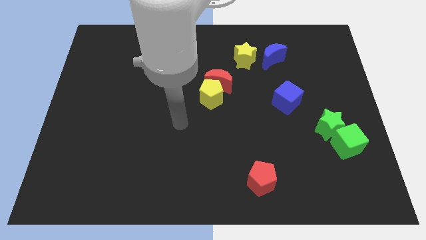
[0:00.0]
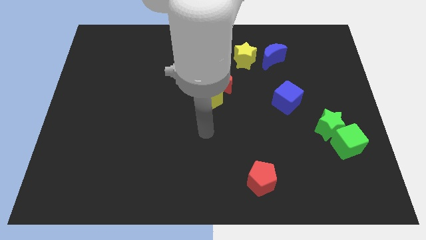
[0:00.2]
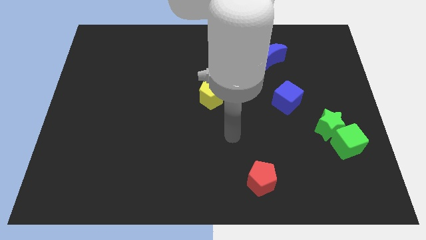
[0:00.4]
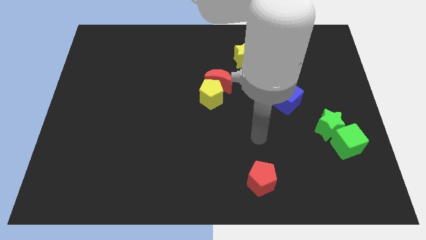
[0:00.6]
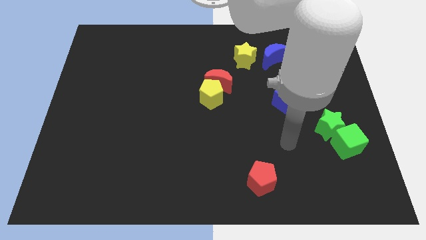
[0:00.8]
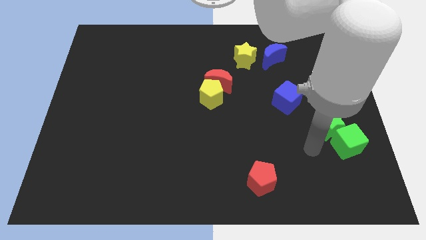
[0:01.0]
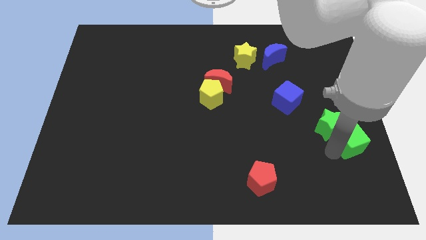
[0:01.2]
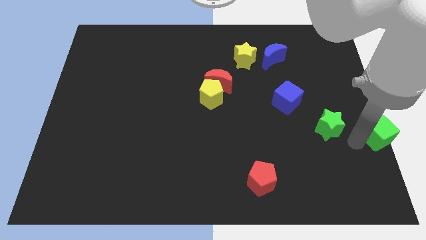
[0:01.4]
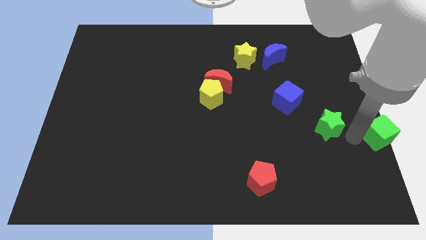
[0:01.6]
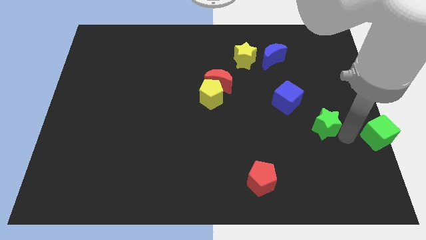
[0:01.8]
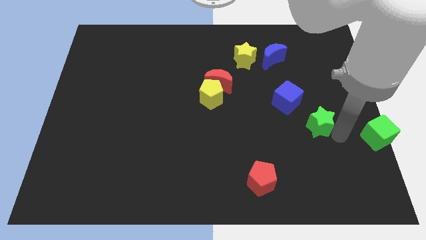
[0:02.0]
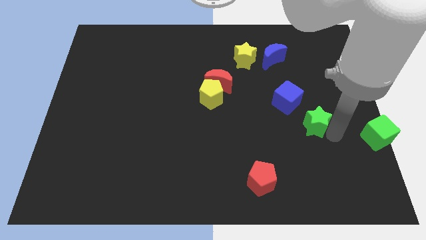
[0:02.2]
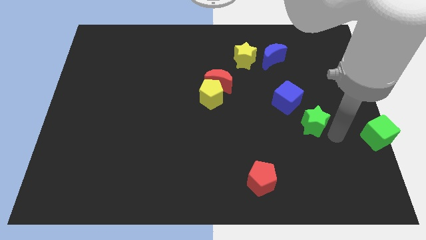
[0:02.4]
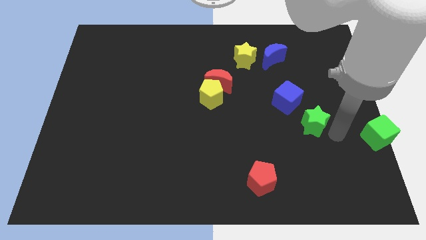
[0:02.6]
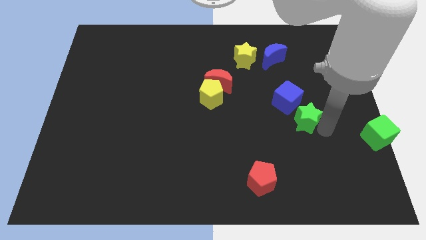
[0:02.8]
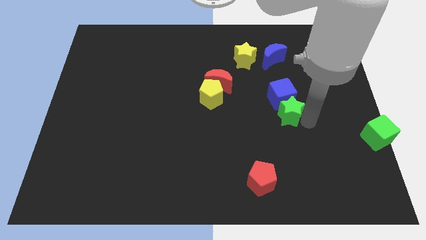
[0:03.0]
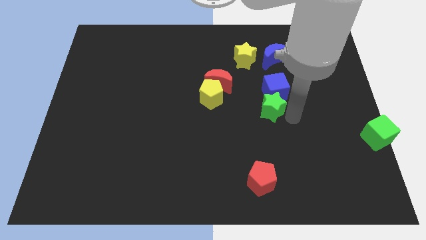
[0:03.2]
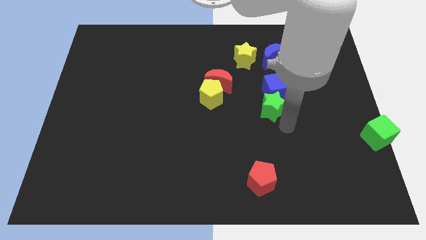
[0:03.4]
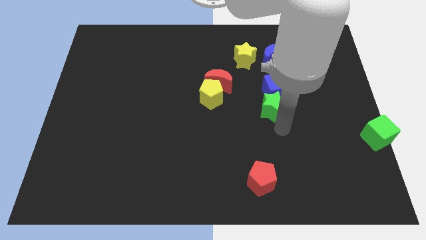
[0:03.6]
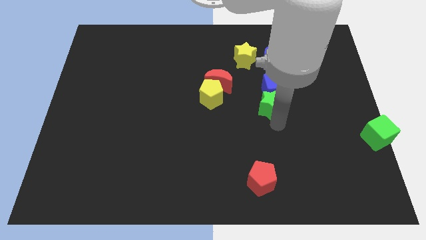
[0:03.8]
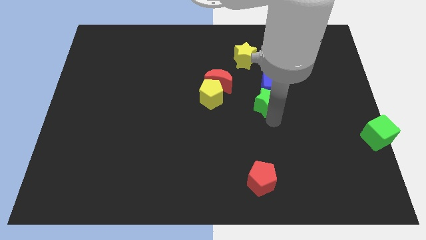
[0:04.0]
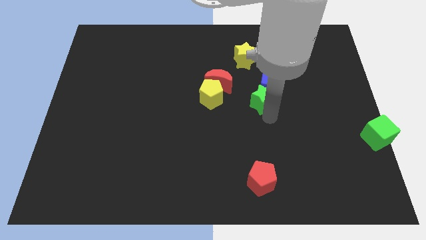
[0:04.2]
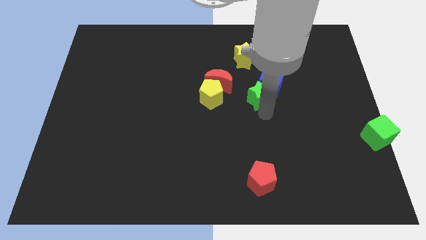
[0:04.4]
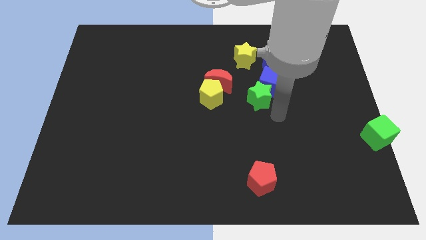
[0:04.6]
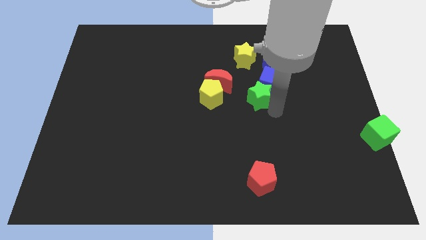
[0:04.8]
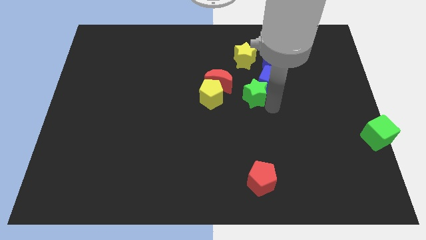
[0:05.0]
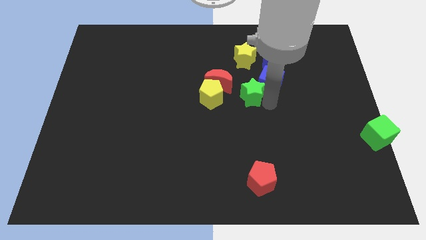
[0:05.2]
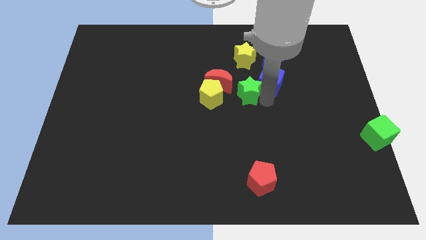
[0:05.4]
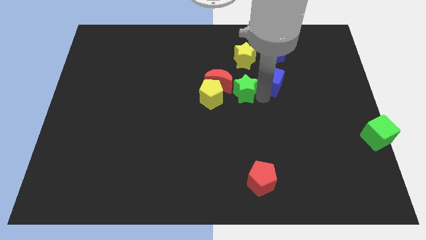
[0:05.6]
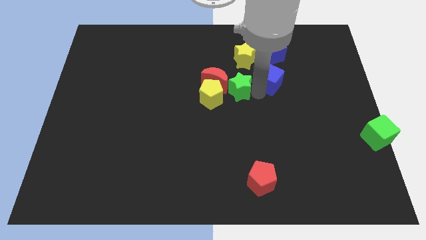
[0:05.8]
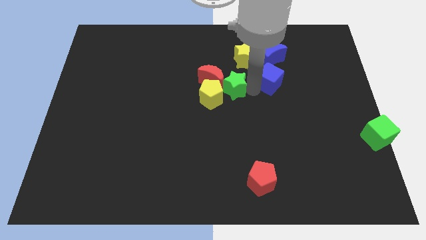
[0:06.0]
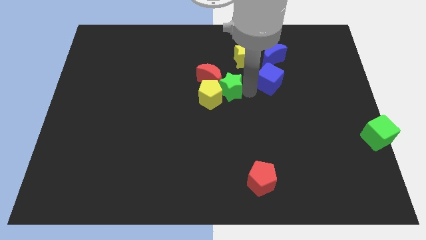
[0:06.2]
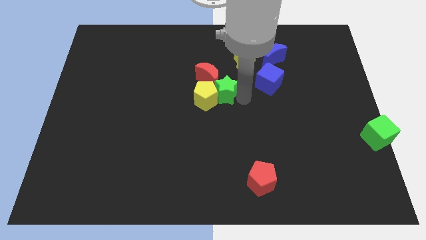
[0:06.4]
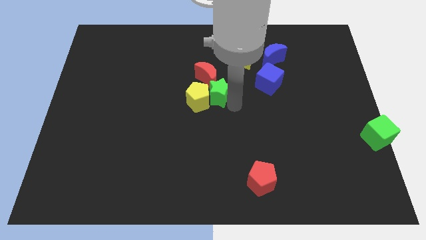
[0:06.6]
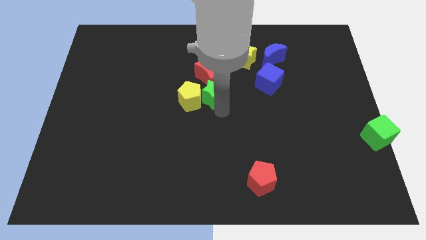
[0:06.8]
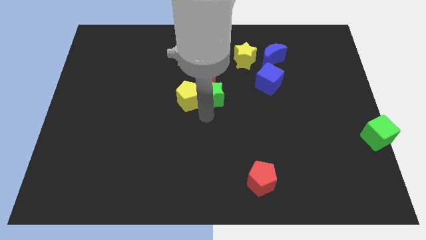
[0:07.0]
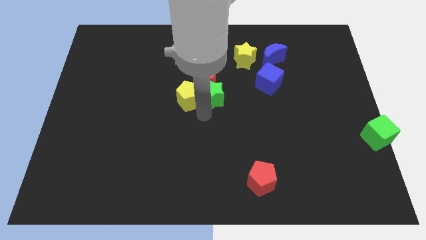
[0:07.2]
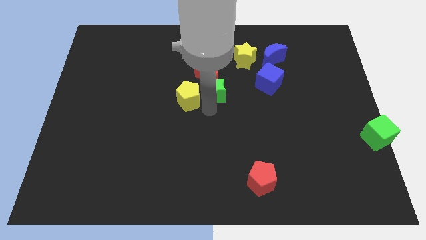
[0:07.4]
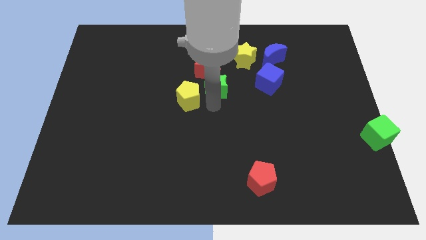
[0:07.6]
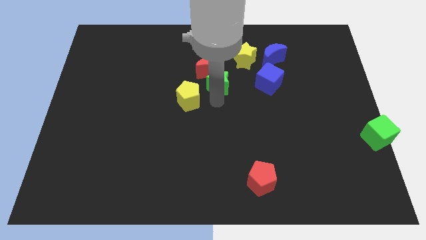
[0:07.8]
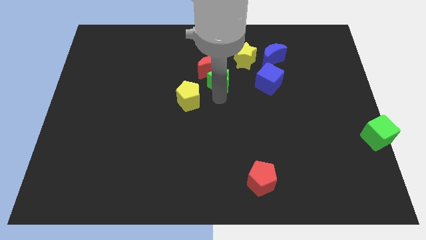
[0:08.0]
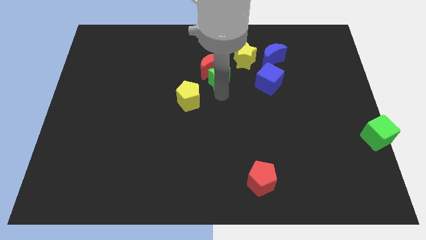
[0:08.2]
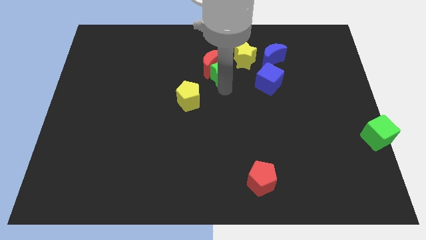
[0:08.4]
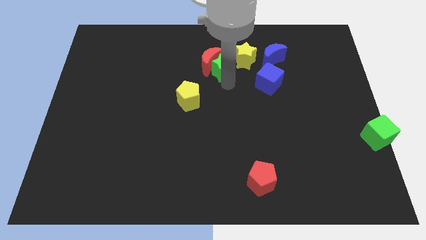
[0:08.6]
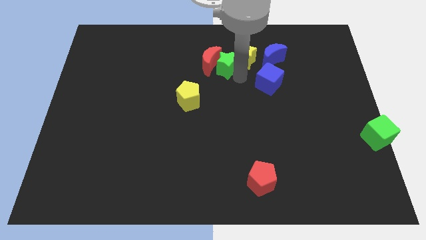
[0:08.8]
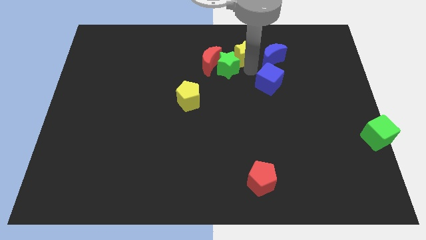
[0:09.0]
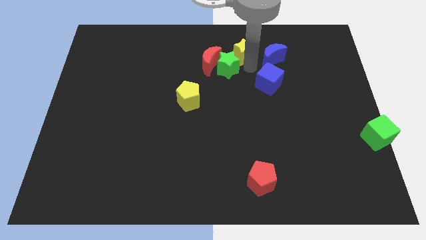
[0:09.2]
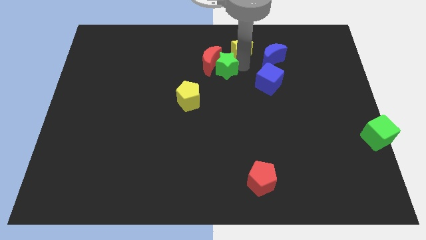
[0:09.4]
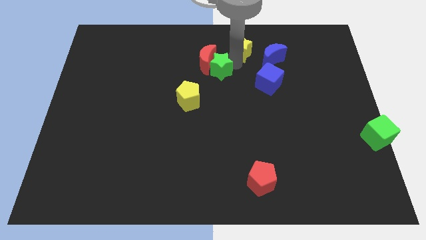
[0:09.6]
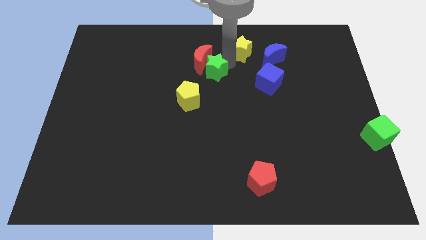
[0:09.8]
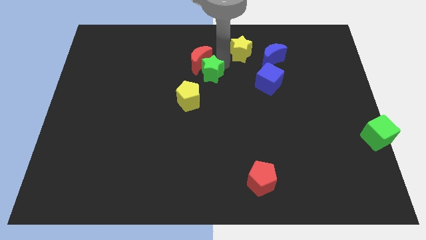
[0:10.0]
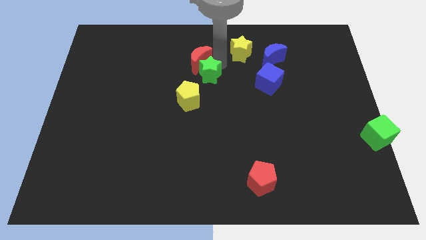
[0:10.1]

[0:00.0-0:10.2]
slide the green star to the top of the yellow pentagon

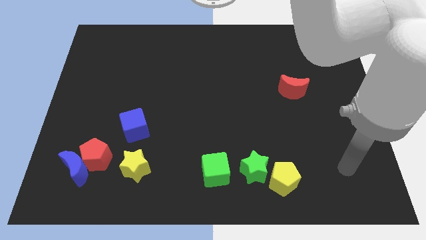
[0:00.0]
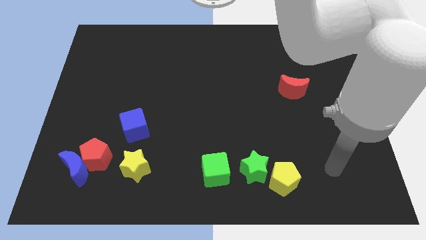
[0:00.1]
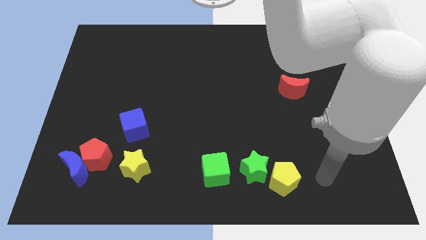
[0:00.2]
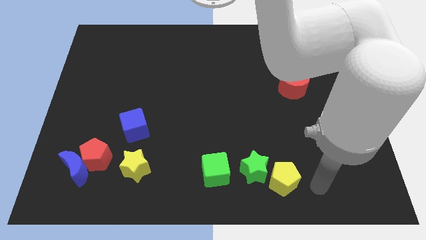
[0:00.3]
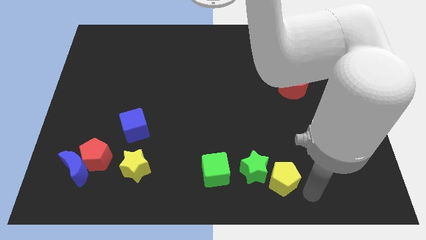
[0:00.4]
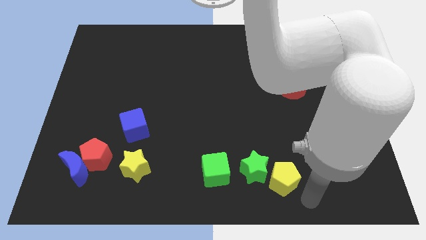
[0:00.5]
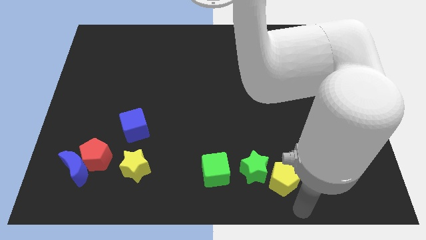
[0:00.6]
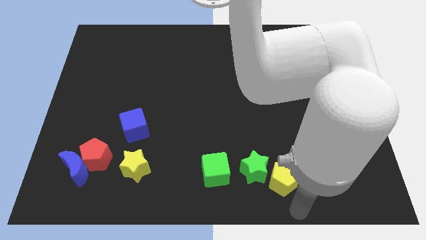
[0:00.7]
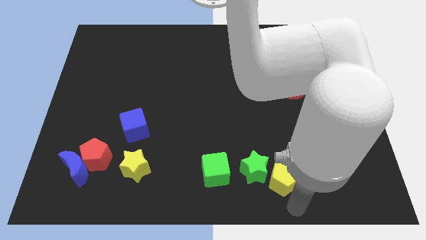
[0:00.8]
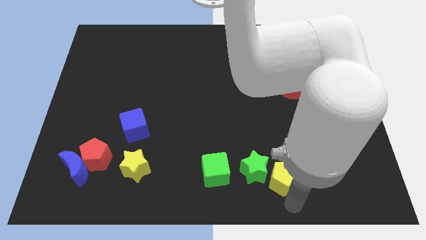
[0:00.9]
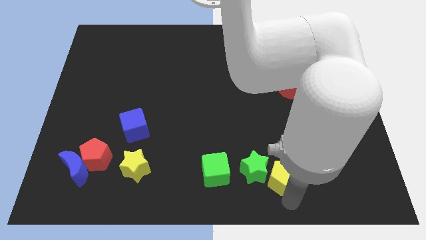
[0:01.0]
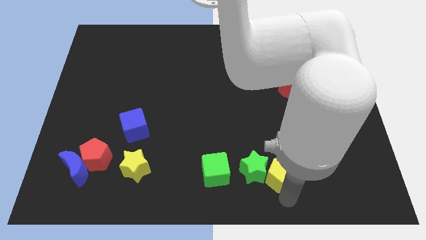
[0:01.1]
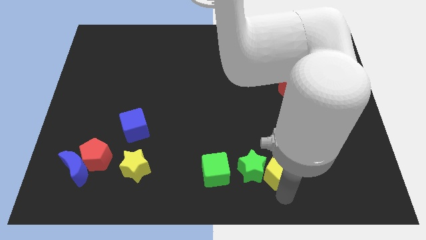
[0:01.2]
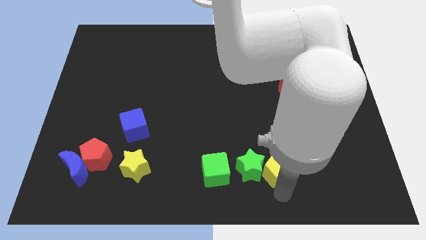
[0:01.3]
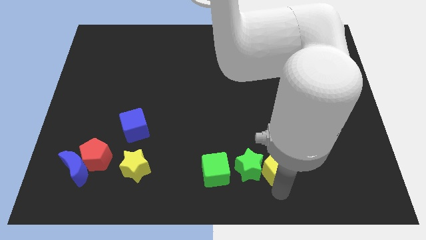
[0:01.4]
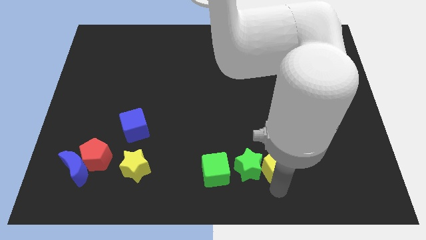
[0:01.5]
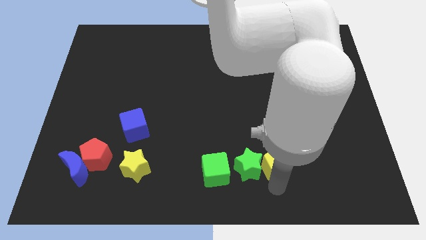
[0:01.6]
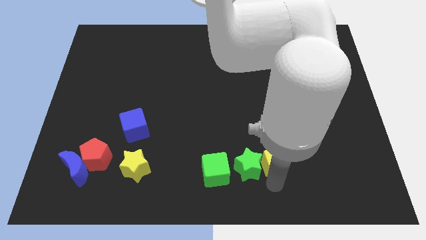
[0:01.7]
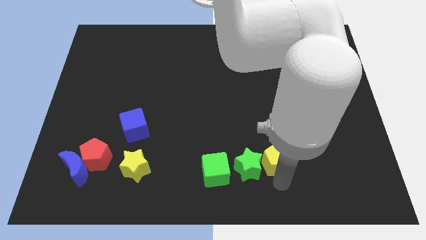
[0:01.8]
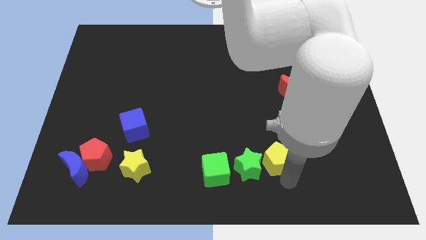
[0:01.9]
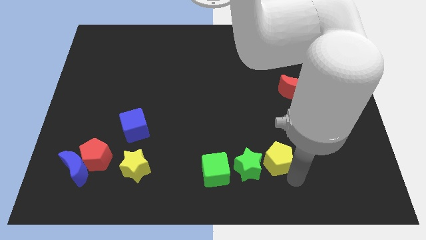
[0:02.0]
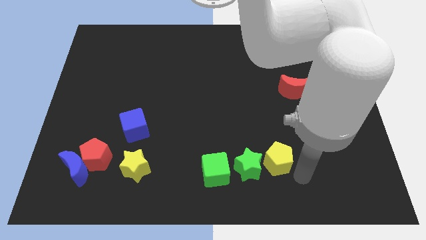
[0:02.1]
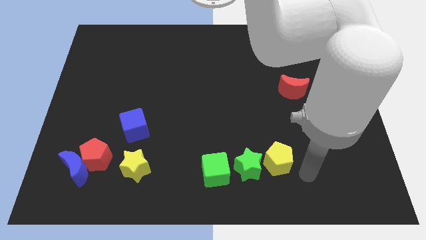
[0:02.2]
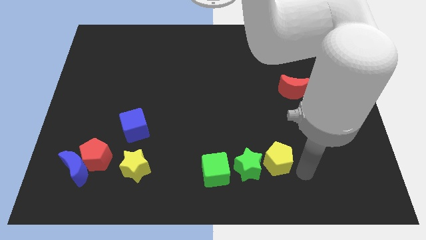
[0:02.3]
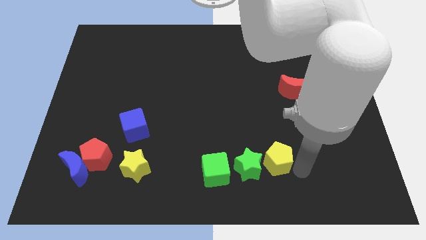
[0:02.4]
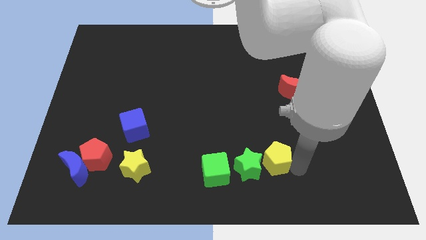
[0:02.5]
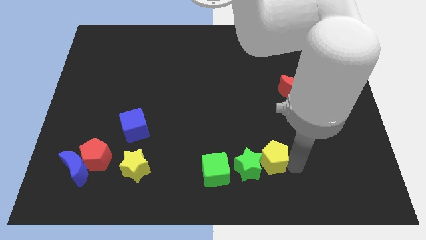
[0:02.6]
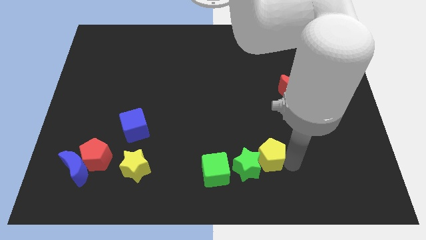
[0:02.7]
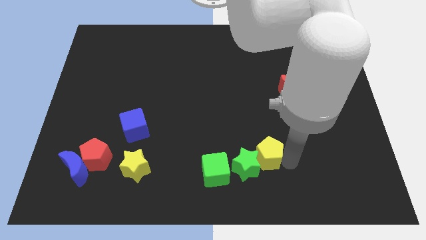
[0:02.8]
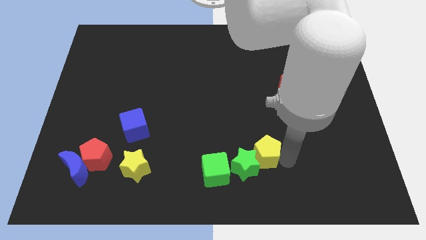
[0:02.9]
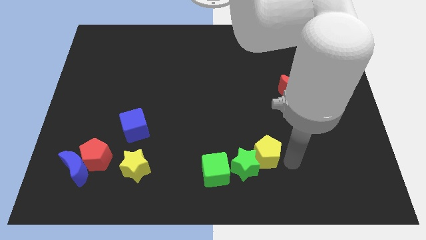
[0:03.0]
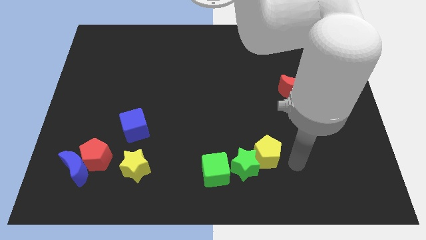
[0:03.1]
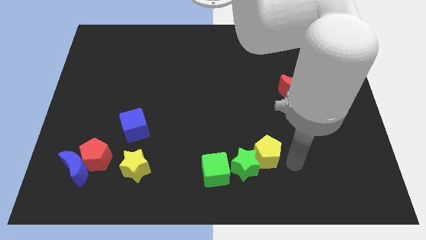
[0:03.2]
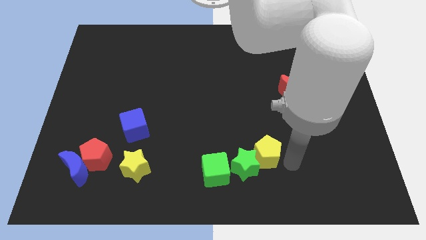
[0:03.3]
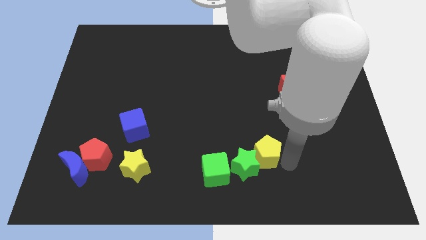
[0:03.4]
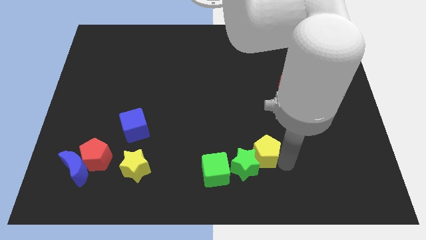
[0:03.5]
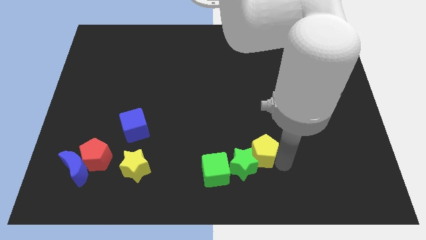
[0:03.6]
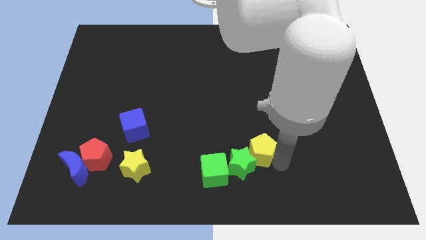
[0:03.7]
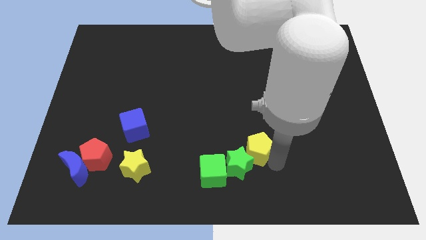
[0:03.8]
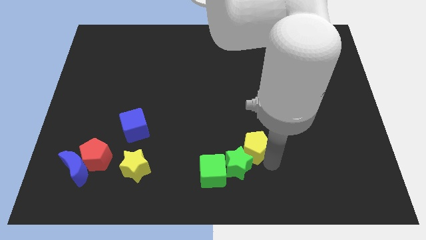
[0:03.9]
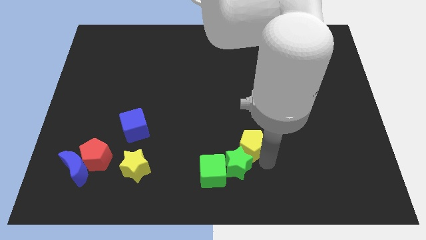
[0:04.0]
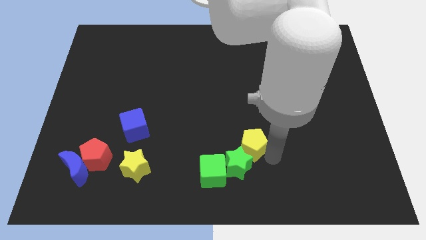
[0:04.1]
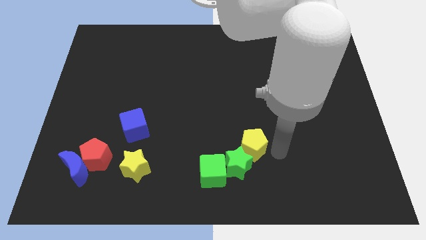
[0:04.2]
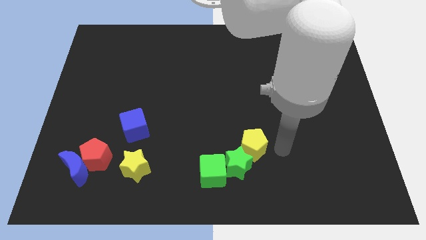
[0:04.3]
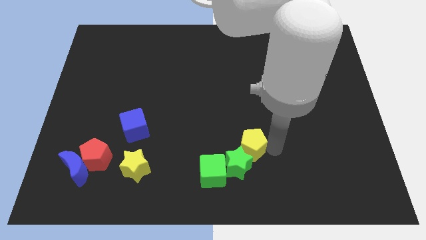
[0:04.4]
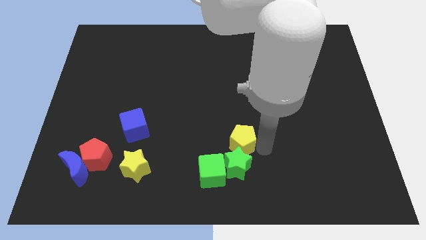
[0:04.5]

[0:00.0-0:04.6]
slide the yellow pentagon diagonally up and to the left of the green star
